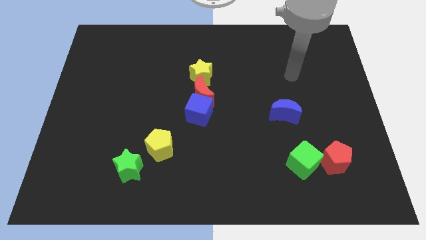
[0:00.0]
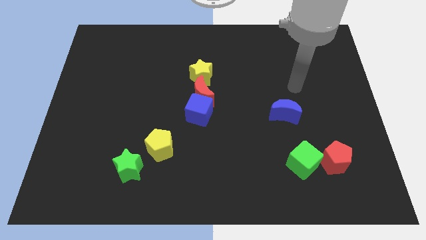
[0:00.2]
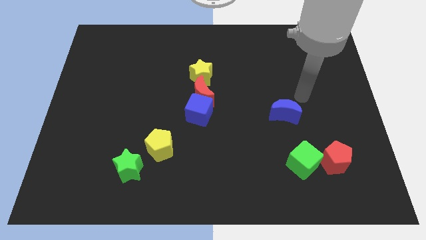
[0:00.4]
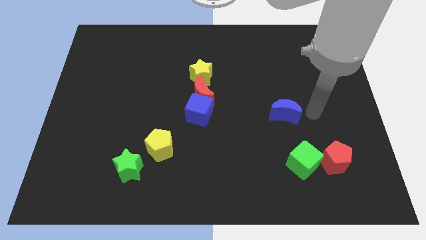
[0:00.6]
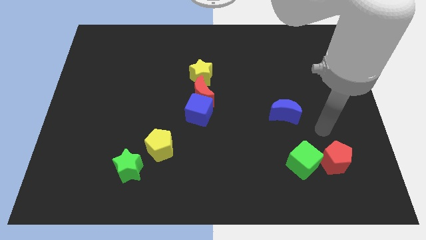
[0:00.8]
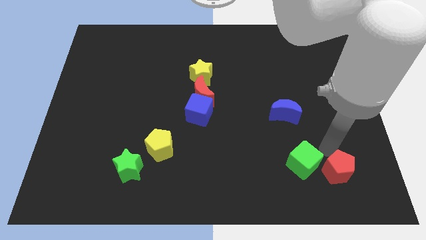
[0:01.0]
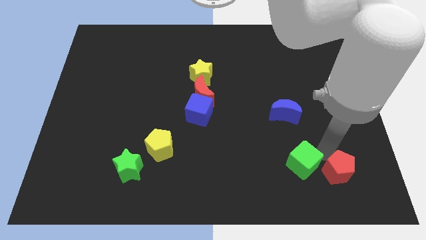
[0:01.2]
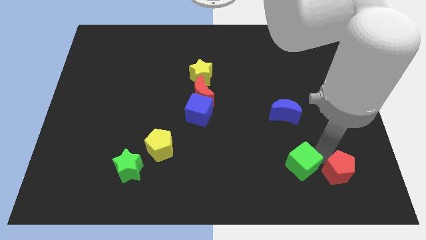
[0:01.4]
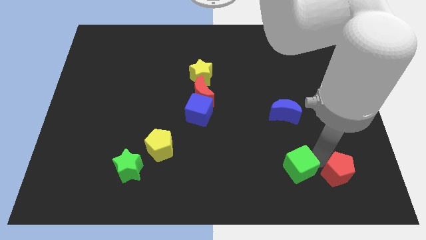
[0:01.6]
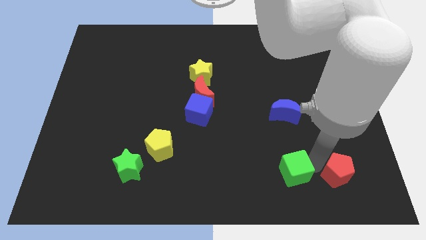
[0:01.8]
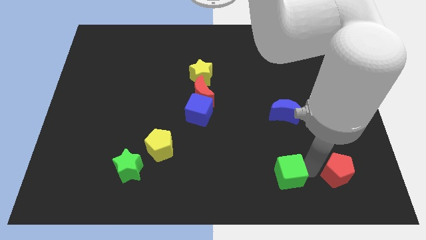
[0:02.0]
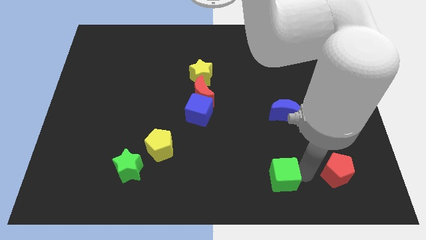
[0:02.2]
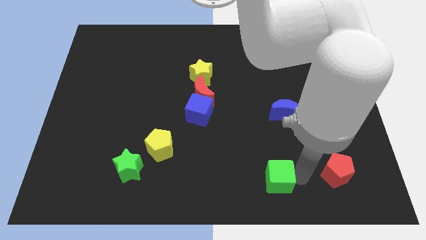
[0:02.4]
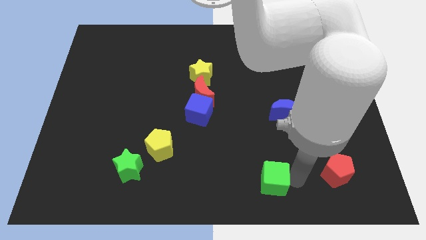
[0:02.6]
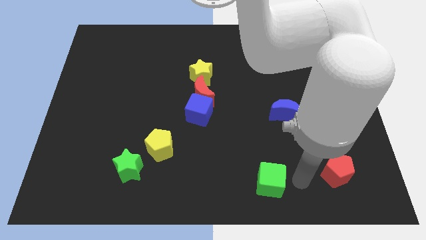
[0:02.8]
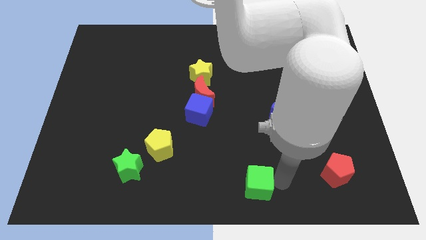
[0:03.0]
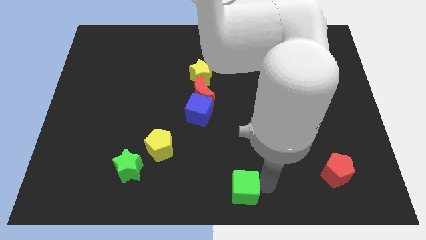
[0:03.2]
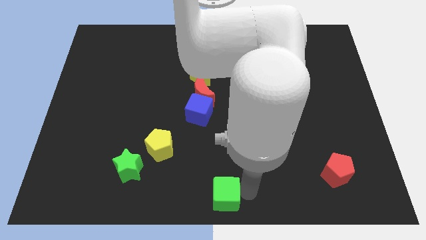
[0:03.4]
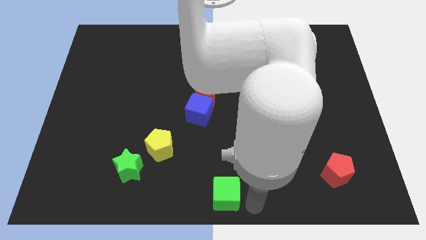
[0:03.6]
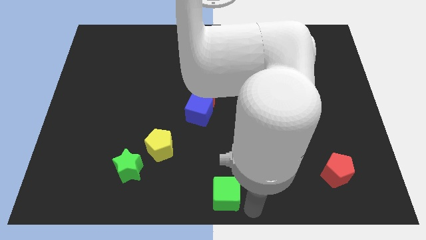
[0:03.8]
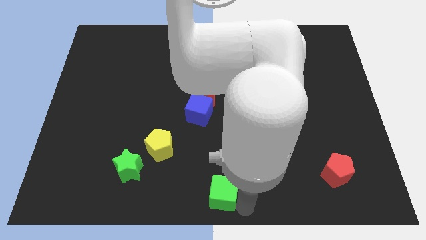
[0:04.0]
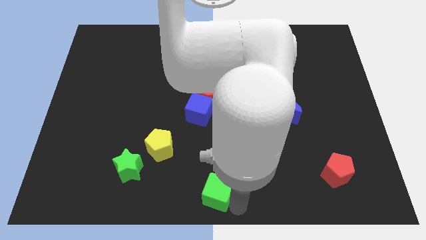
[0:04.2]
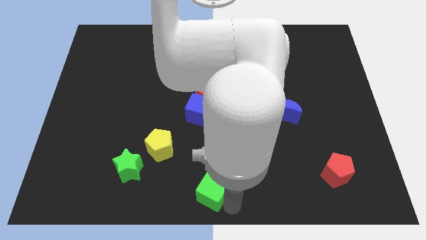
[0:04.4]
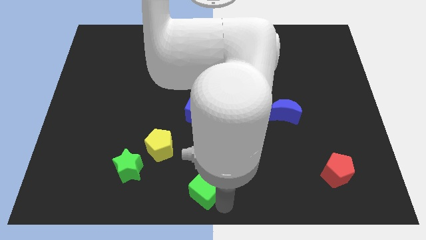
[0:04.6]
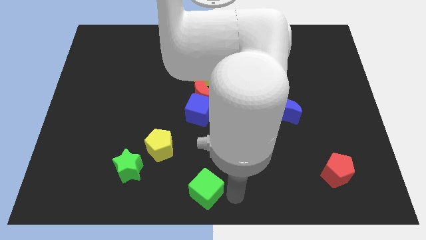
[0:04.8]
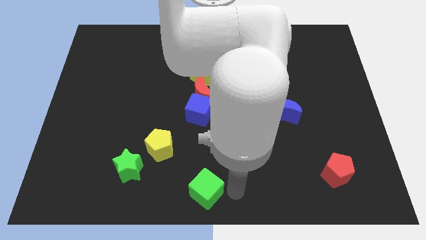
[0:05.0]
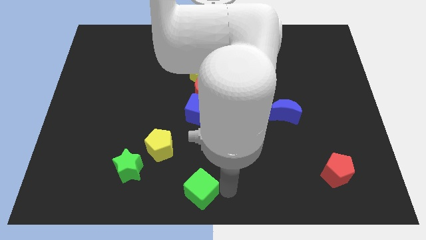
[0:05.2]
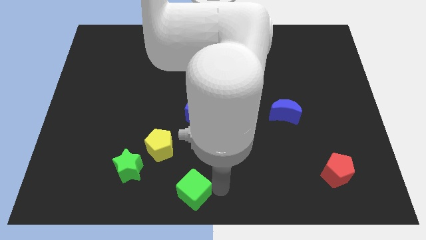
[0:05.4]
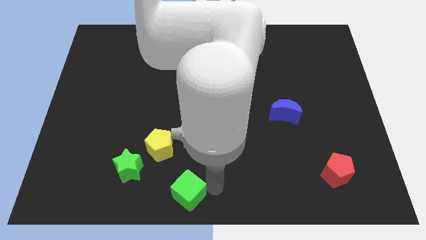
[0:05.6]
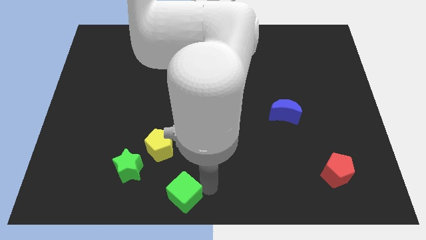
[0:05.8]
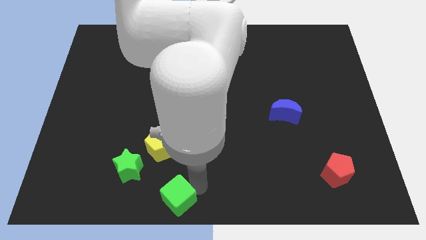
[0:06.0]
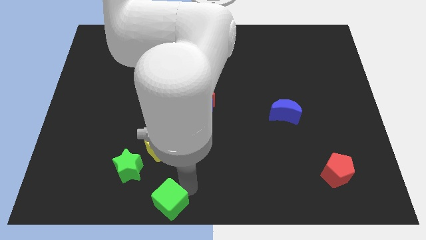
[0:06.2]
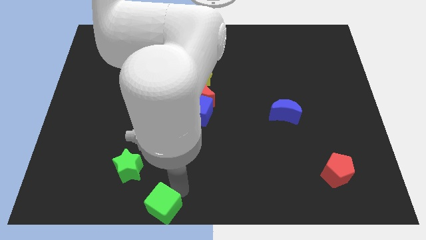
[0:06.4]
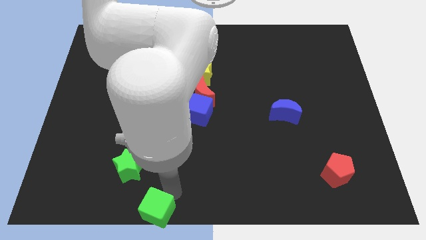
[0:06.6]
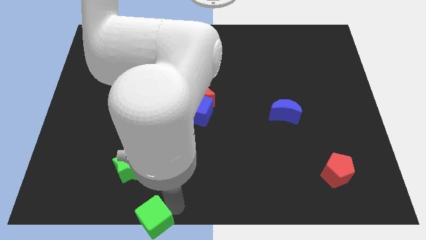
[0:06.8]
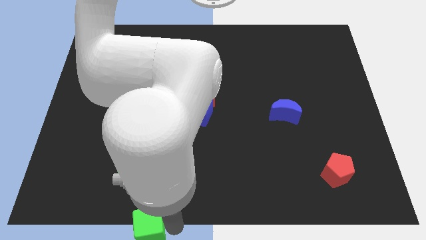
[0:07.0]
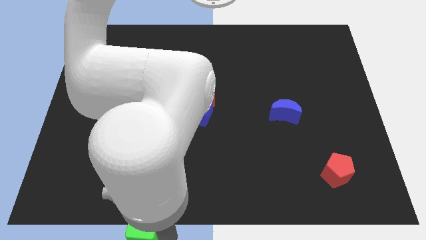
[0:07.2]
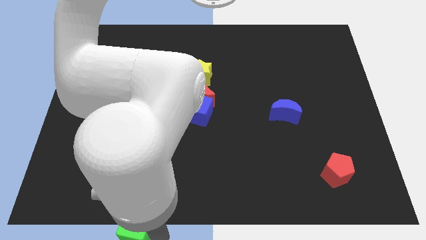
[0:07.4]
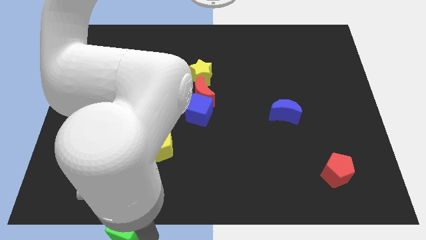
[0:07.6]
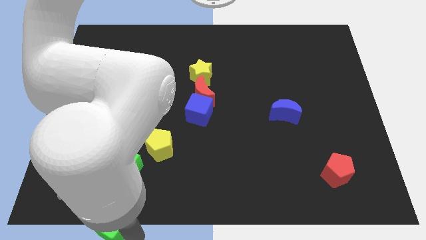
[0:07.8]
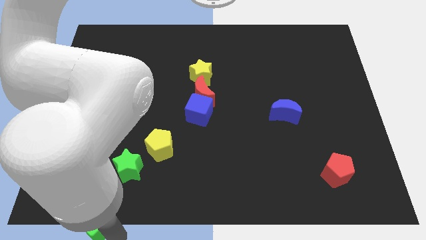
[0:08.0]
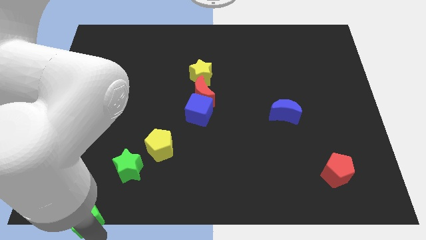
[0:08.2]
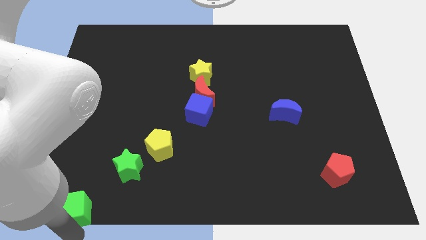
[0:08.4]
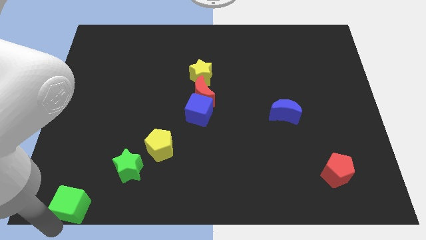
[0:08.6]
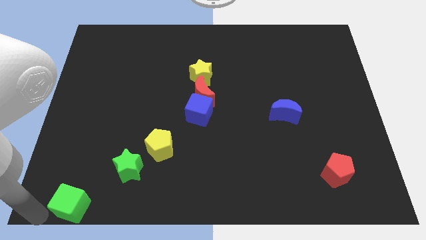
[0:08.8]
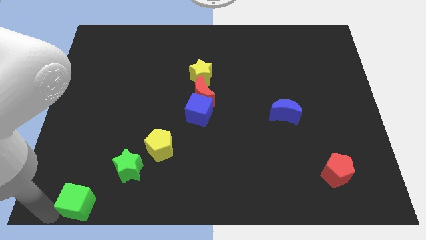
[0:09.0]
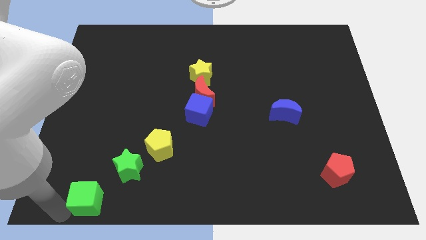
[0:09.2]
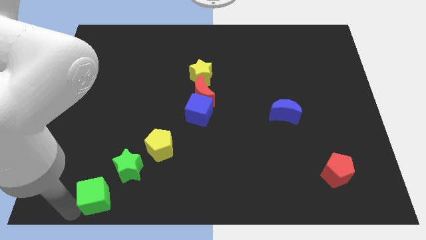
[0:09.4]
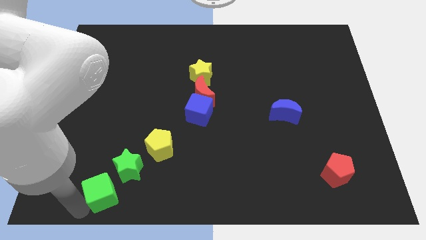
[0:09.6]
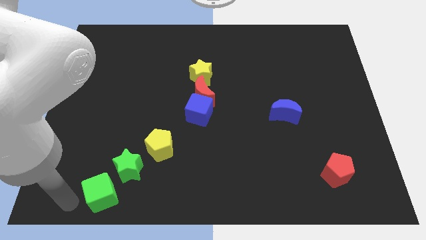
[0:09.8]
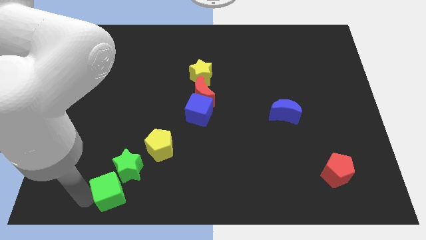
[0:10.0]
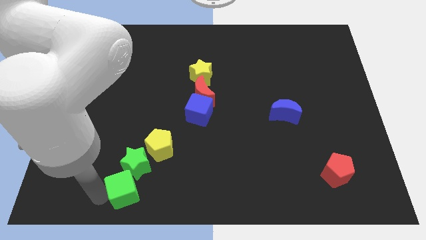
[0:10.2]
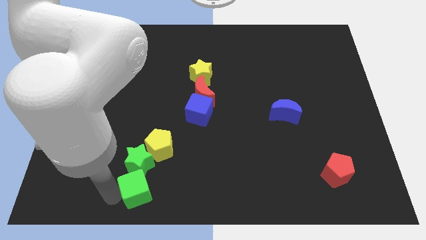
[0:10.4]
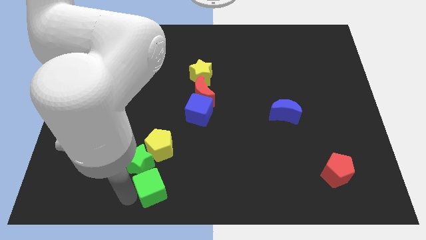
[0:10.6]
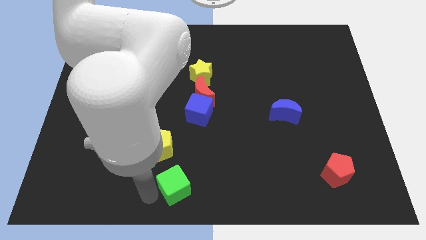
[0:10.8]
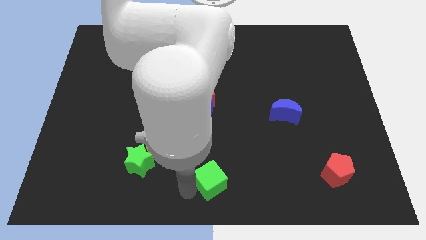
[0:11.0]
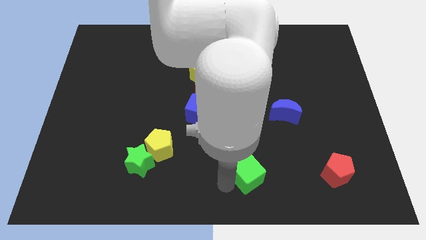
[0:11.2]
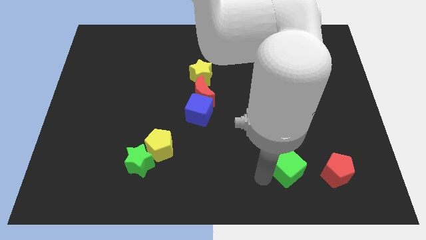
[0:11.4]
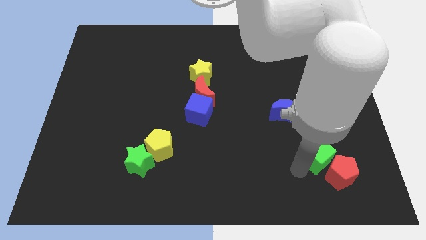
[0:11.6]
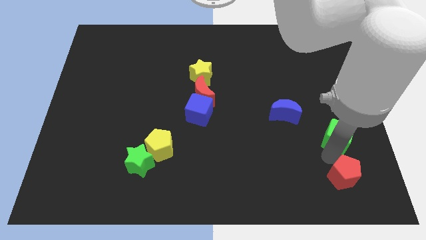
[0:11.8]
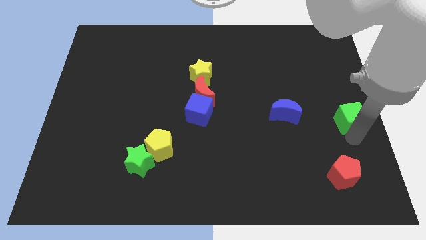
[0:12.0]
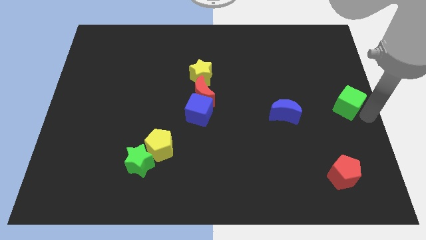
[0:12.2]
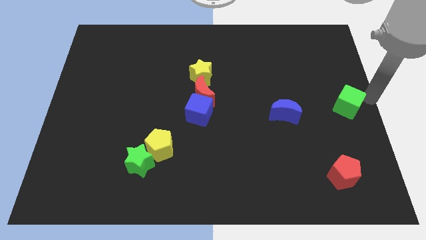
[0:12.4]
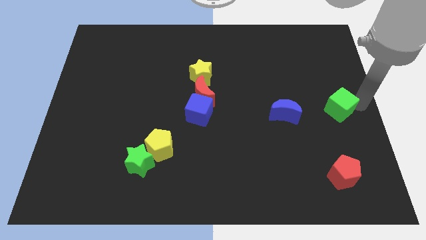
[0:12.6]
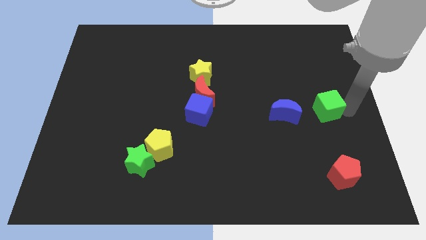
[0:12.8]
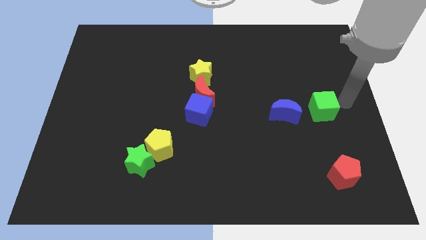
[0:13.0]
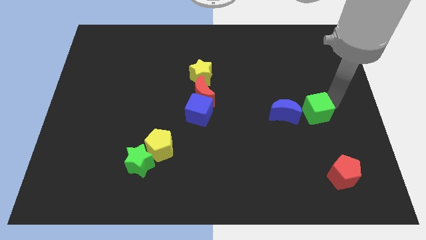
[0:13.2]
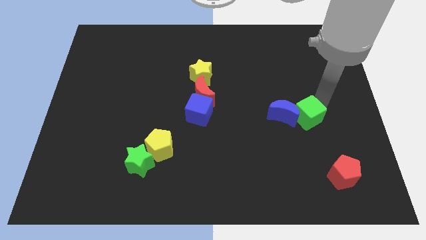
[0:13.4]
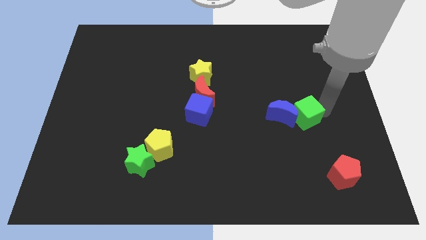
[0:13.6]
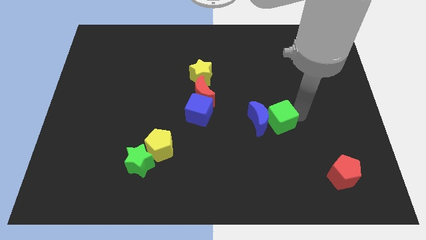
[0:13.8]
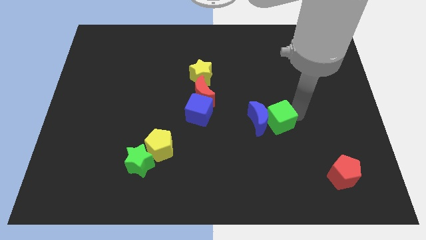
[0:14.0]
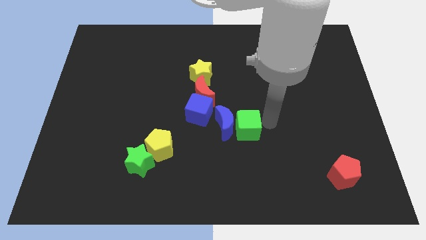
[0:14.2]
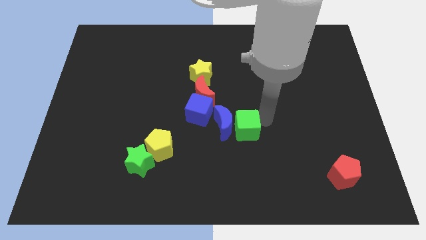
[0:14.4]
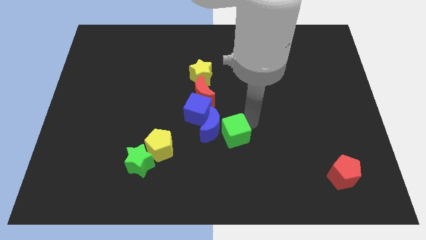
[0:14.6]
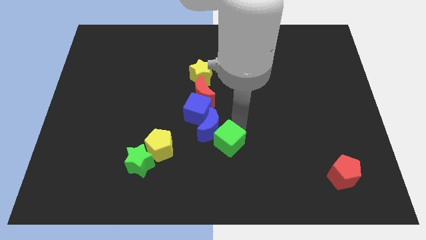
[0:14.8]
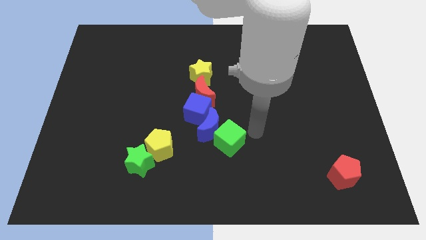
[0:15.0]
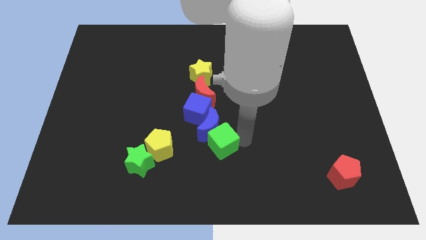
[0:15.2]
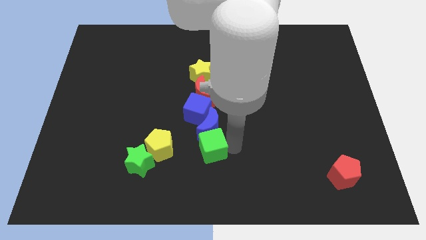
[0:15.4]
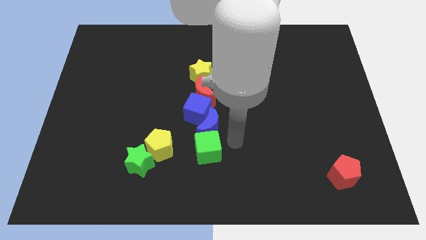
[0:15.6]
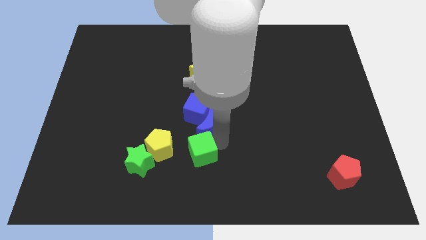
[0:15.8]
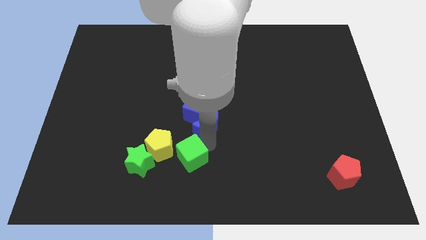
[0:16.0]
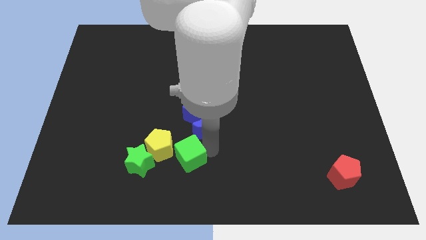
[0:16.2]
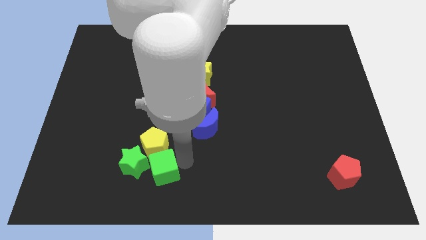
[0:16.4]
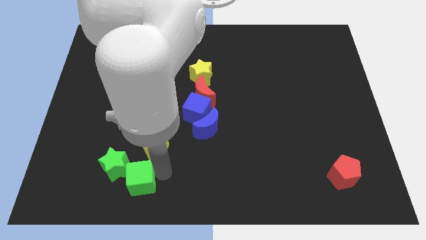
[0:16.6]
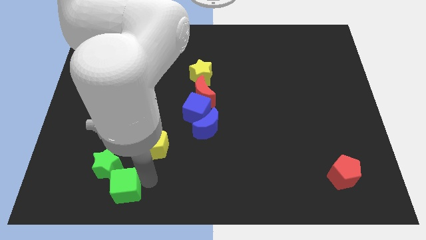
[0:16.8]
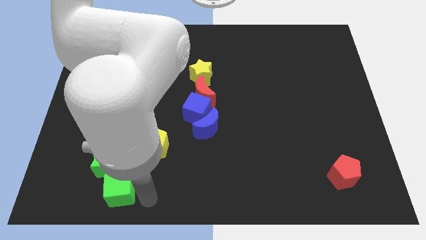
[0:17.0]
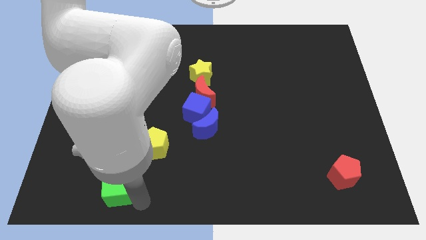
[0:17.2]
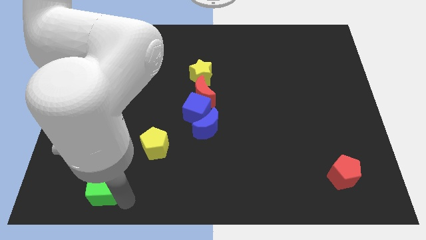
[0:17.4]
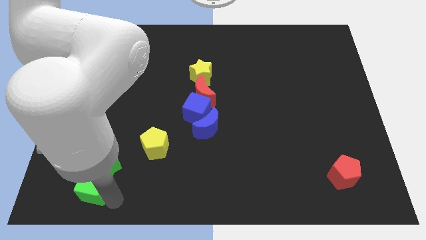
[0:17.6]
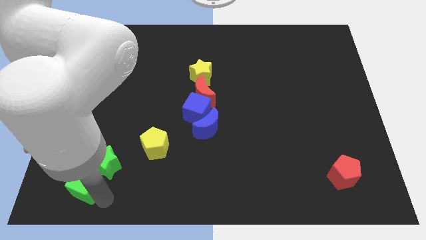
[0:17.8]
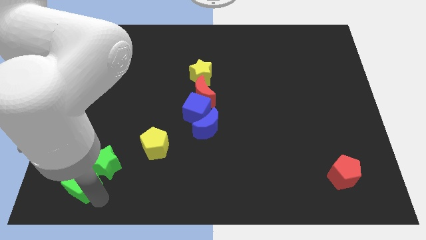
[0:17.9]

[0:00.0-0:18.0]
slide the green cube to the left side of the green star
